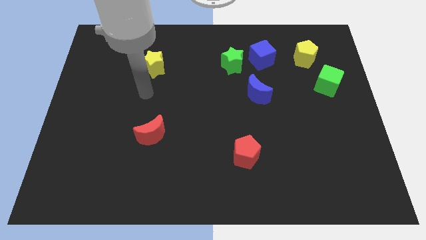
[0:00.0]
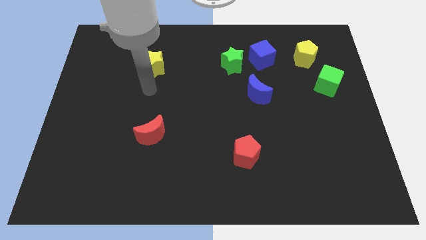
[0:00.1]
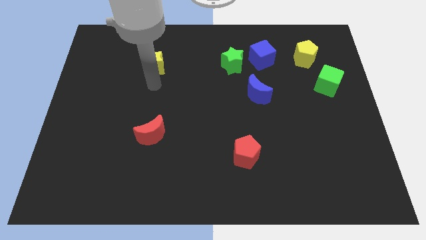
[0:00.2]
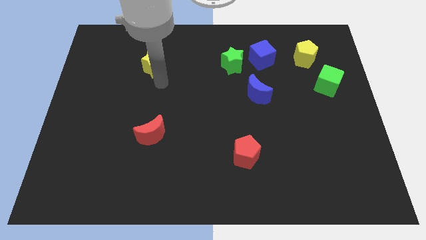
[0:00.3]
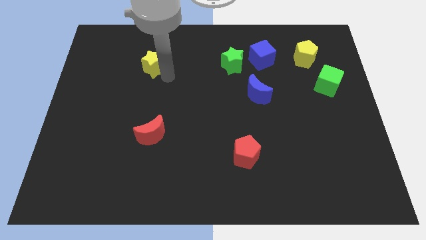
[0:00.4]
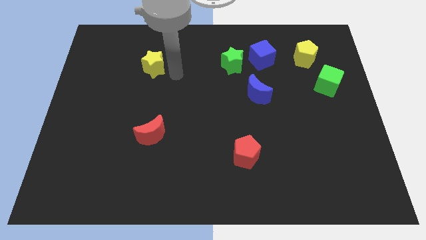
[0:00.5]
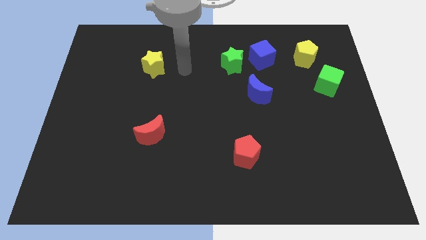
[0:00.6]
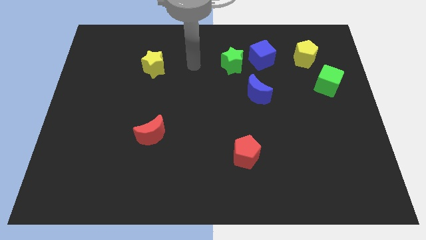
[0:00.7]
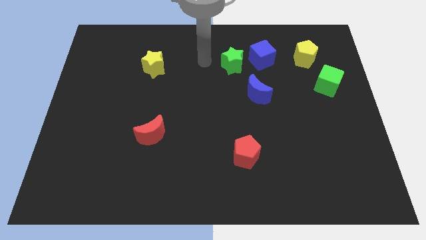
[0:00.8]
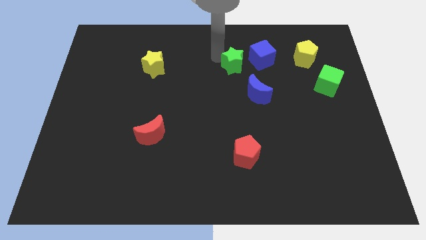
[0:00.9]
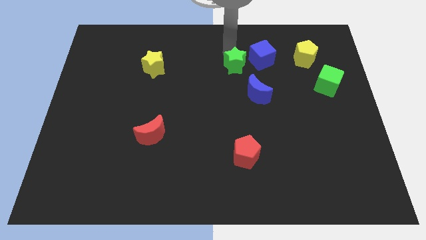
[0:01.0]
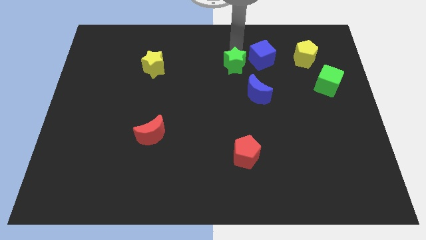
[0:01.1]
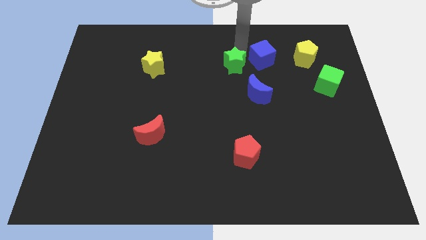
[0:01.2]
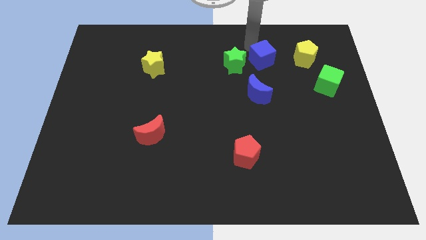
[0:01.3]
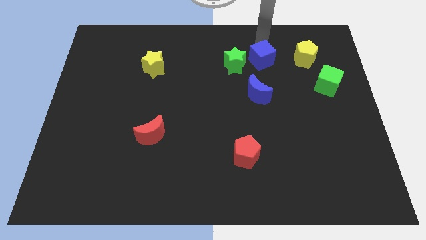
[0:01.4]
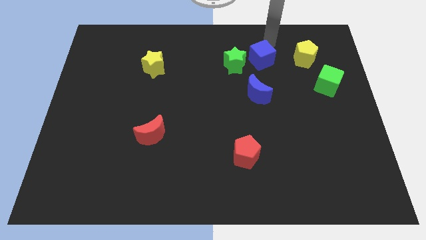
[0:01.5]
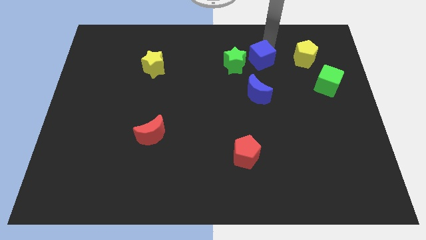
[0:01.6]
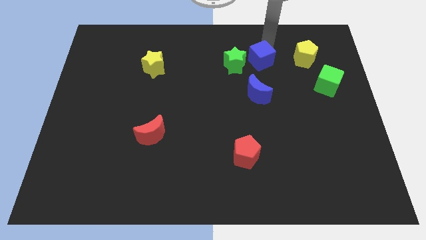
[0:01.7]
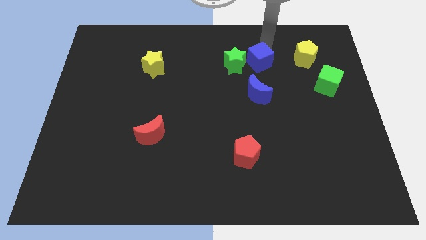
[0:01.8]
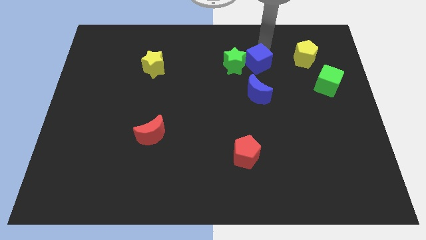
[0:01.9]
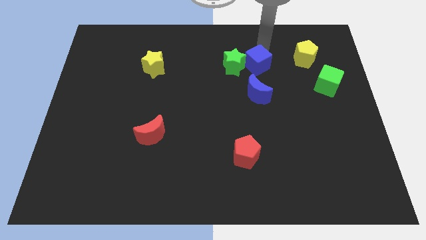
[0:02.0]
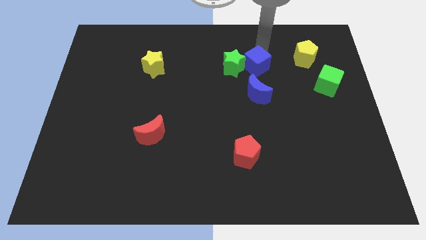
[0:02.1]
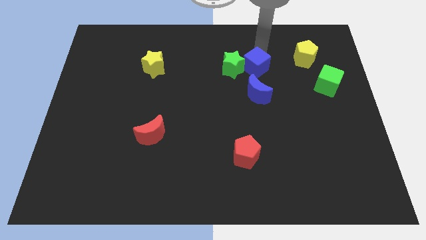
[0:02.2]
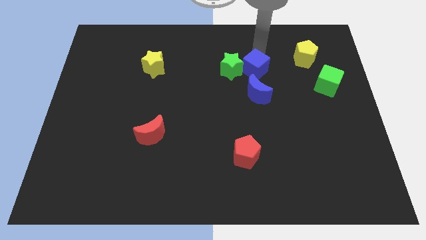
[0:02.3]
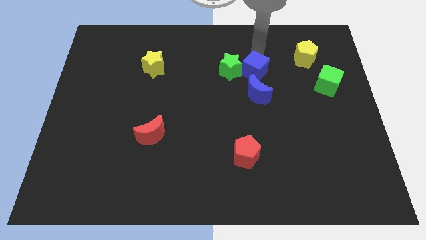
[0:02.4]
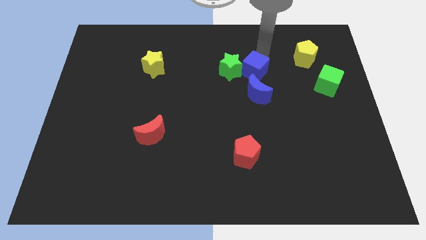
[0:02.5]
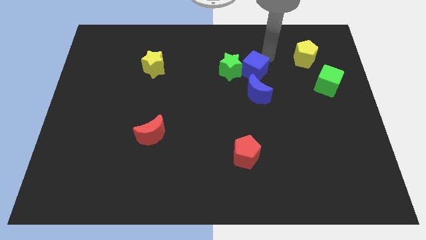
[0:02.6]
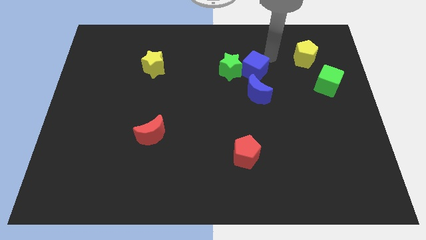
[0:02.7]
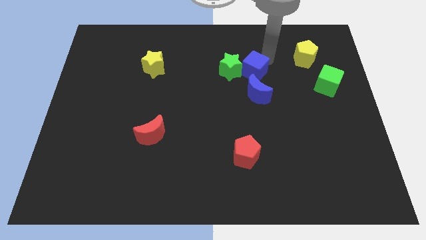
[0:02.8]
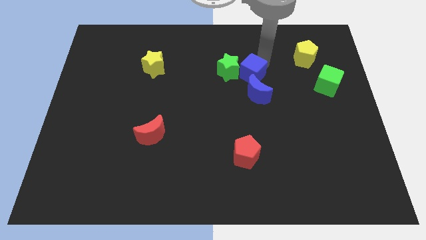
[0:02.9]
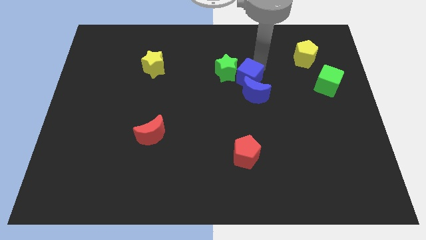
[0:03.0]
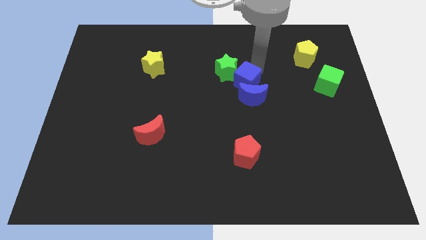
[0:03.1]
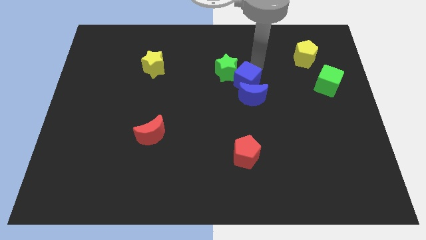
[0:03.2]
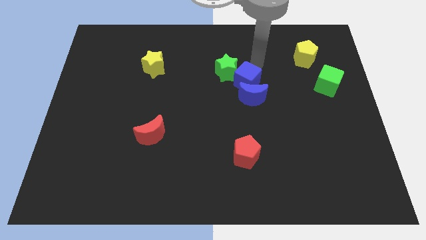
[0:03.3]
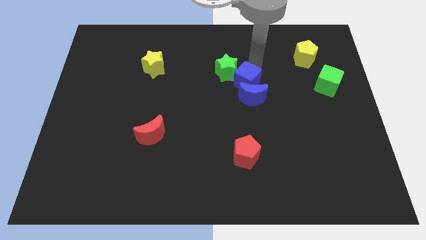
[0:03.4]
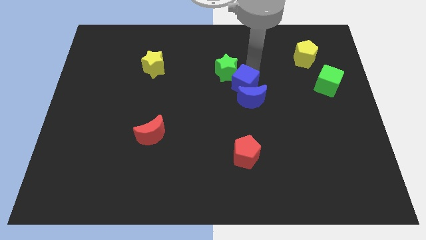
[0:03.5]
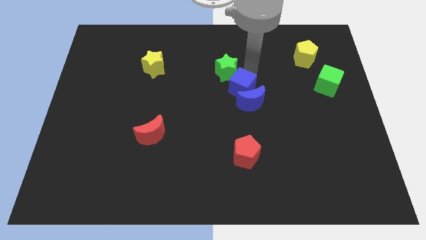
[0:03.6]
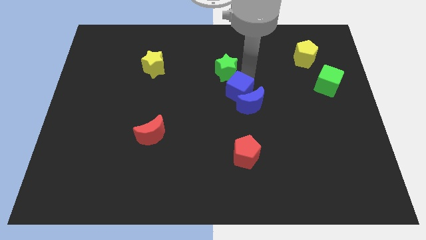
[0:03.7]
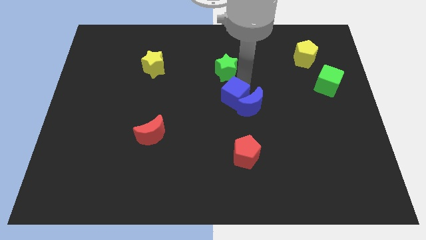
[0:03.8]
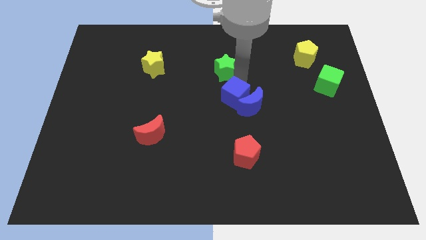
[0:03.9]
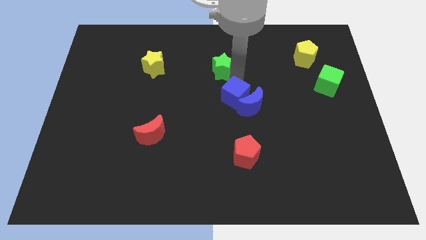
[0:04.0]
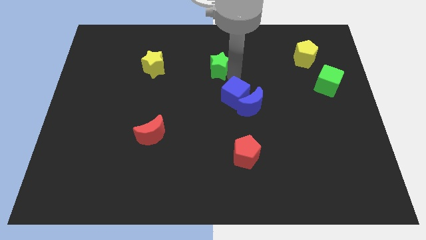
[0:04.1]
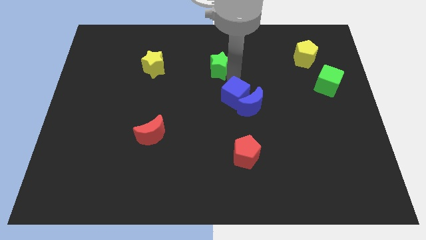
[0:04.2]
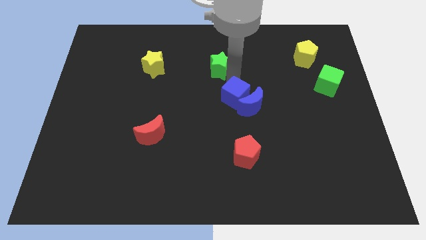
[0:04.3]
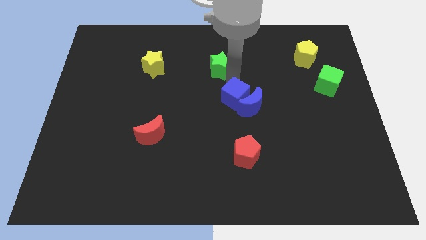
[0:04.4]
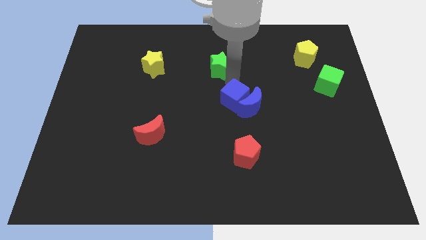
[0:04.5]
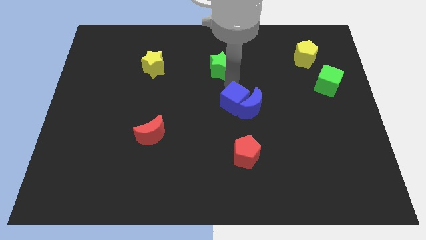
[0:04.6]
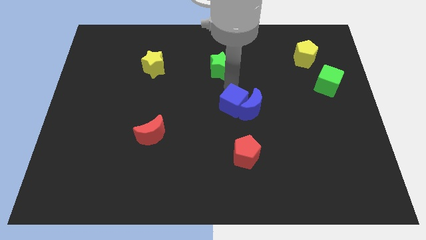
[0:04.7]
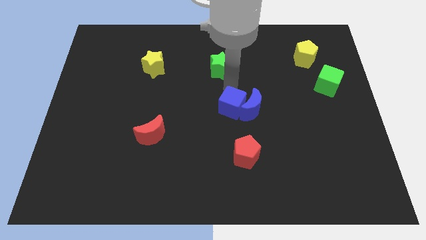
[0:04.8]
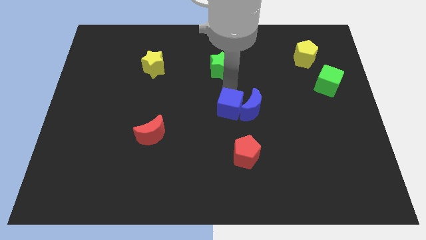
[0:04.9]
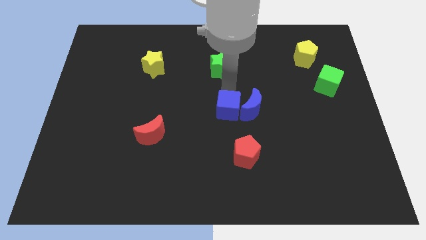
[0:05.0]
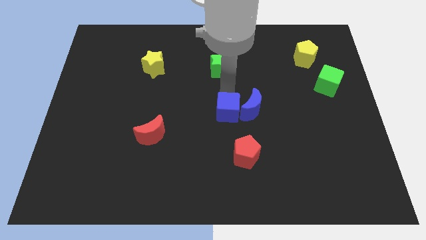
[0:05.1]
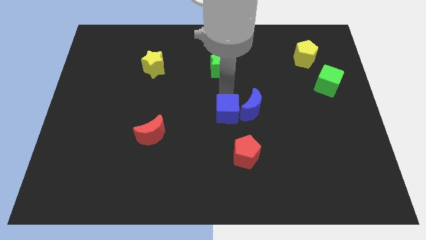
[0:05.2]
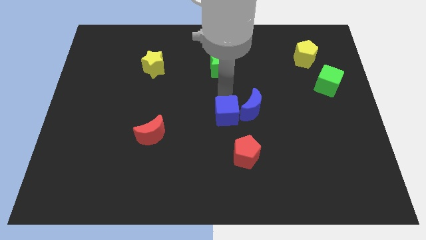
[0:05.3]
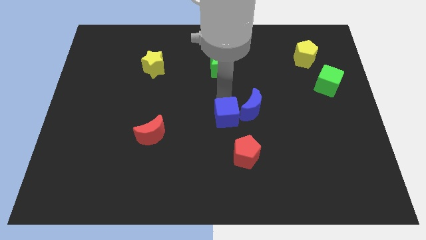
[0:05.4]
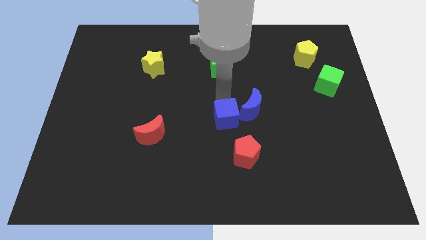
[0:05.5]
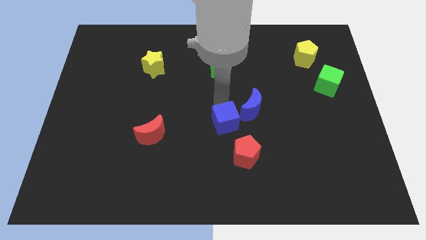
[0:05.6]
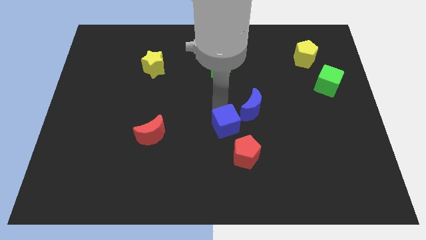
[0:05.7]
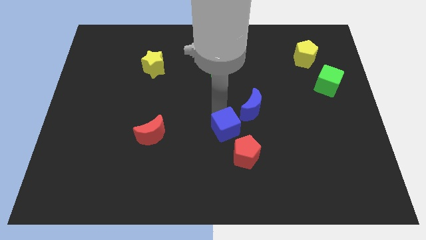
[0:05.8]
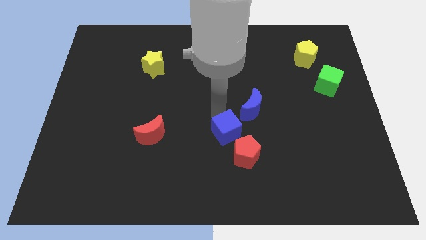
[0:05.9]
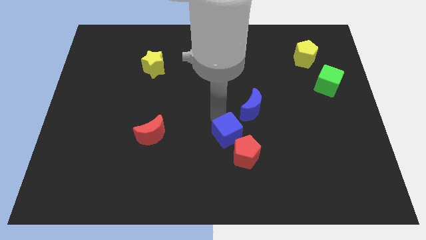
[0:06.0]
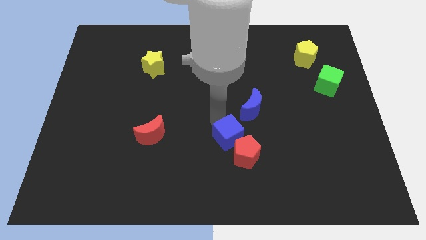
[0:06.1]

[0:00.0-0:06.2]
put the blue cube next to the red pentagon

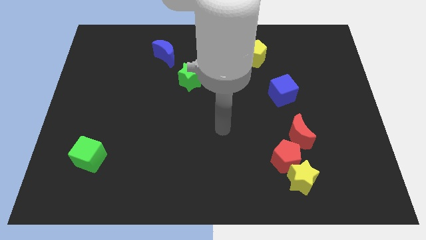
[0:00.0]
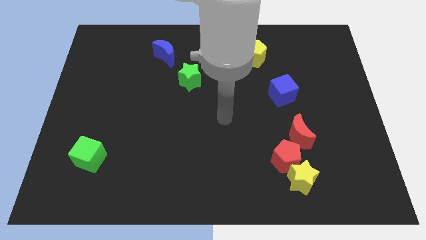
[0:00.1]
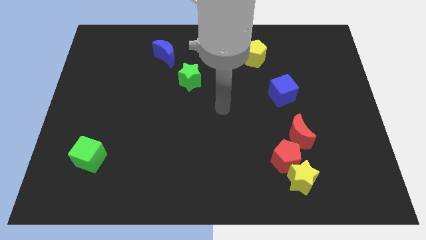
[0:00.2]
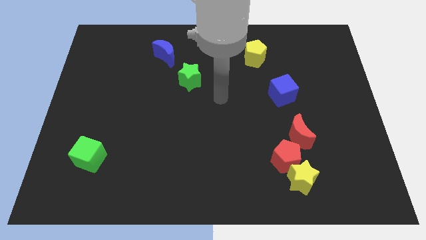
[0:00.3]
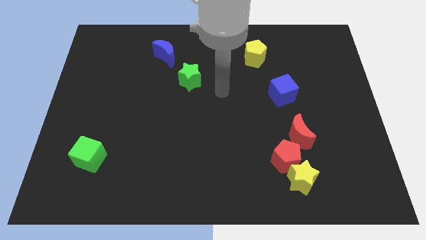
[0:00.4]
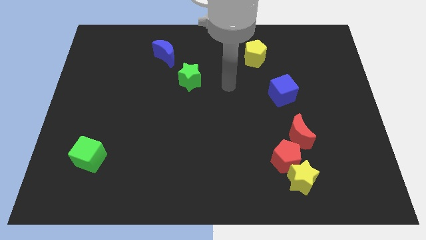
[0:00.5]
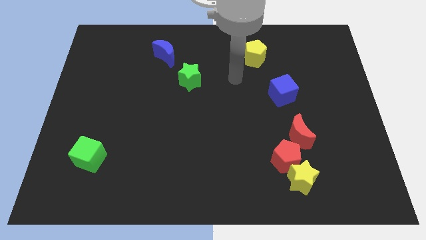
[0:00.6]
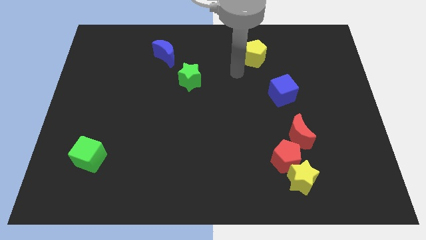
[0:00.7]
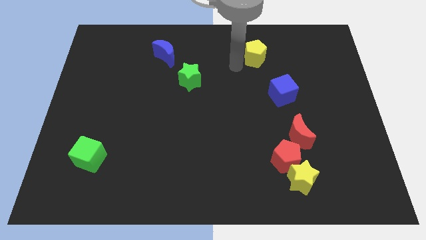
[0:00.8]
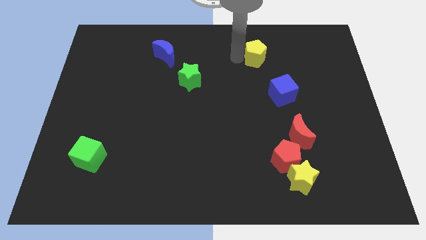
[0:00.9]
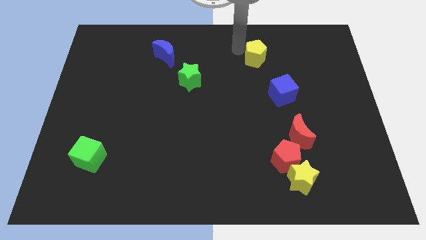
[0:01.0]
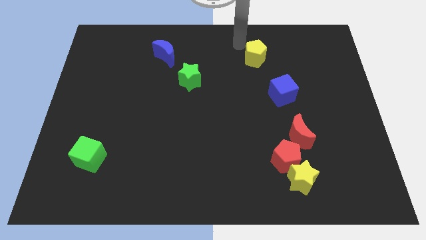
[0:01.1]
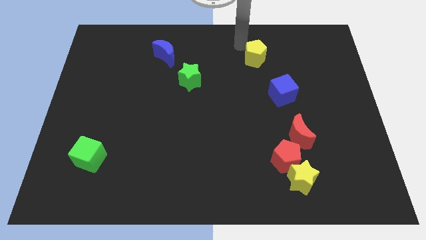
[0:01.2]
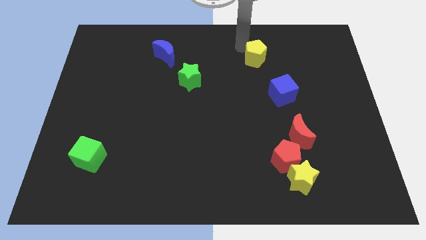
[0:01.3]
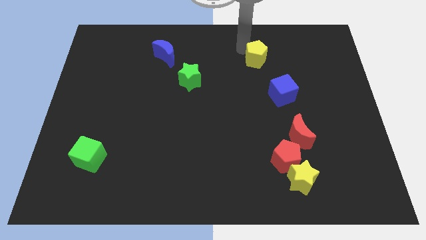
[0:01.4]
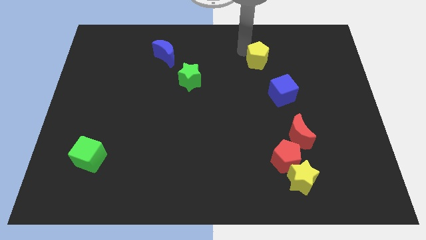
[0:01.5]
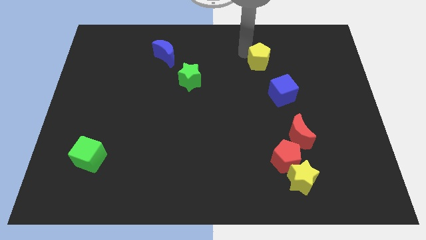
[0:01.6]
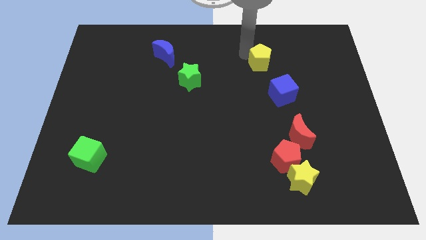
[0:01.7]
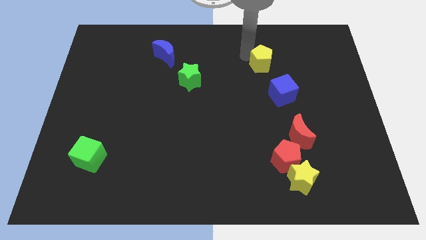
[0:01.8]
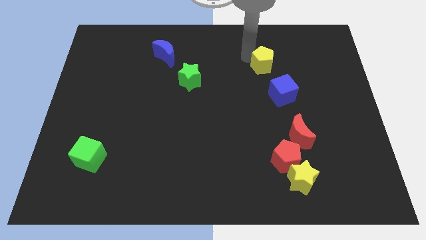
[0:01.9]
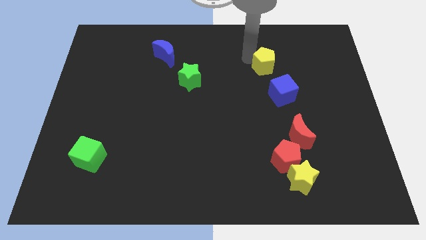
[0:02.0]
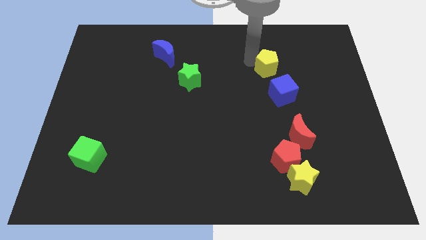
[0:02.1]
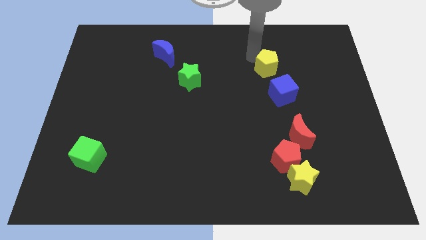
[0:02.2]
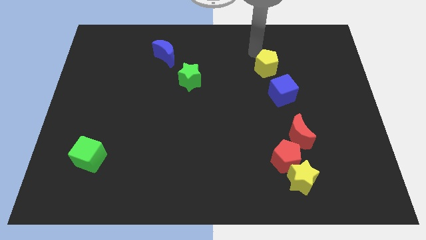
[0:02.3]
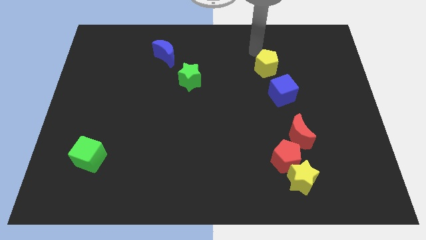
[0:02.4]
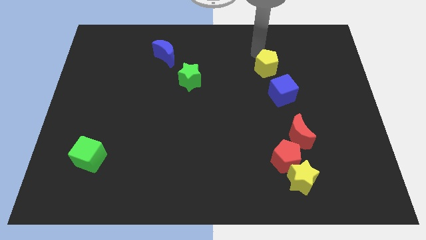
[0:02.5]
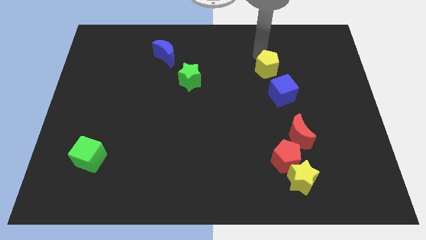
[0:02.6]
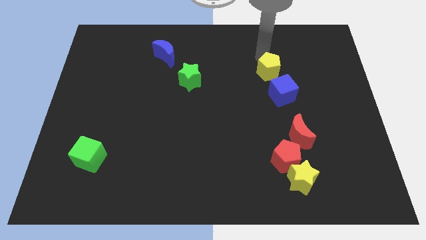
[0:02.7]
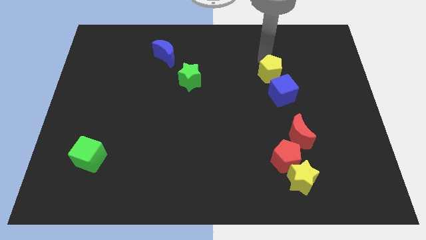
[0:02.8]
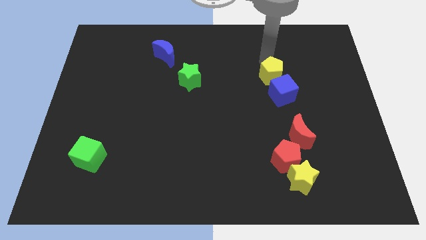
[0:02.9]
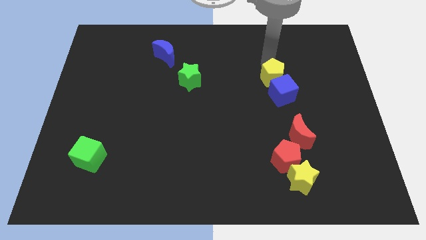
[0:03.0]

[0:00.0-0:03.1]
put the yellow pentagon close to the blue cube
